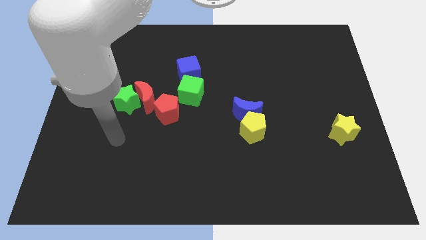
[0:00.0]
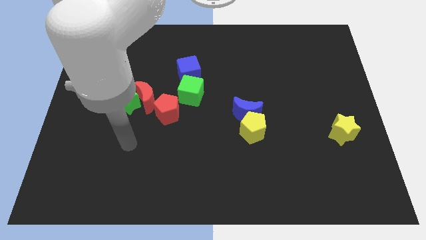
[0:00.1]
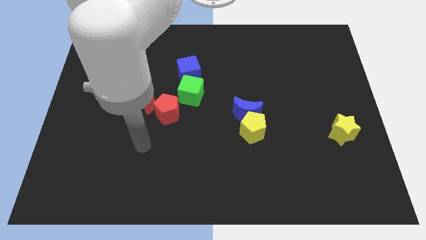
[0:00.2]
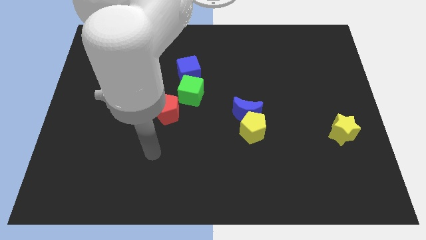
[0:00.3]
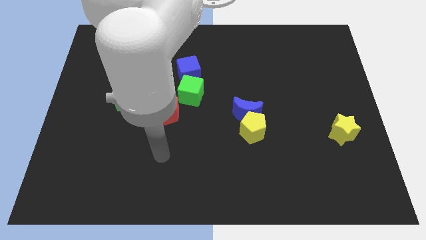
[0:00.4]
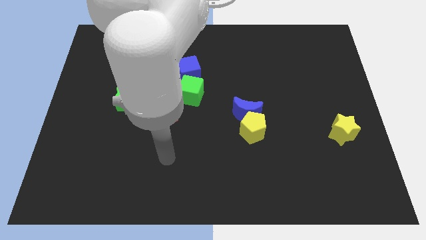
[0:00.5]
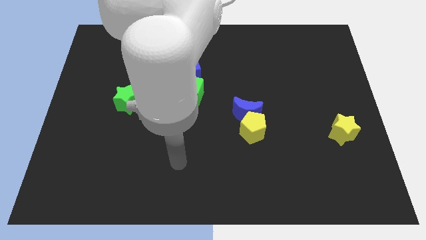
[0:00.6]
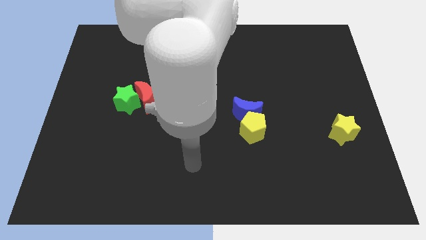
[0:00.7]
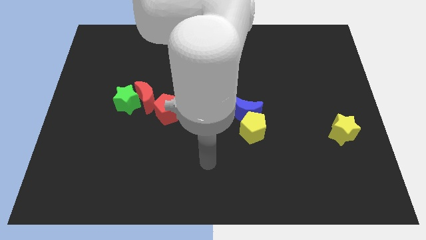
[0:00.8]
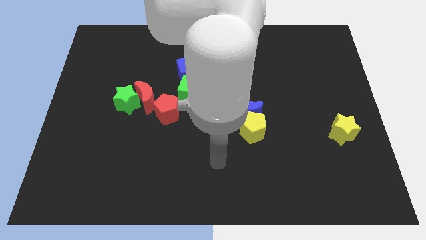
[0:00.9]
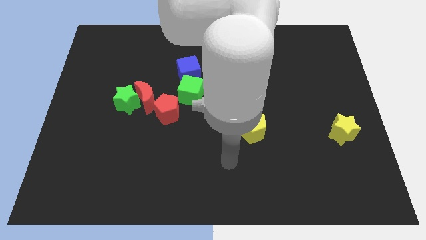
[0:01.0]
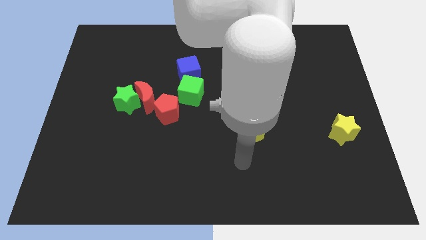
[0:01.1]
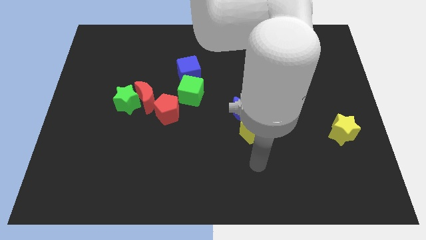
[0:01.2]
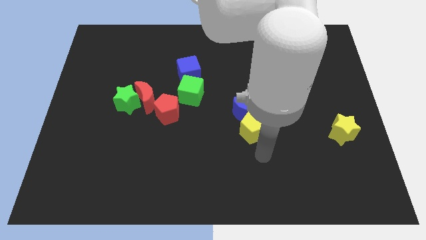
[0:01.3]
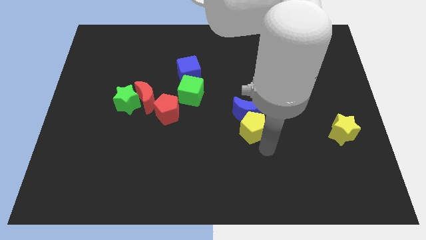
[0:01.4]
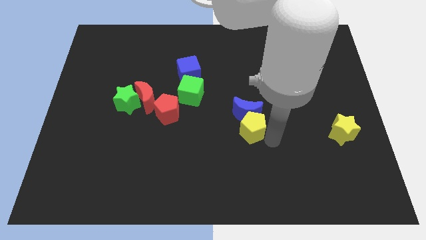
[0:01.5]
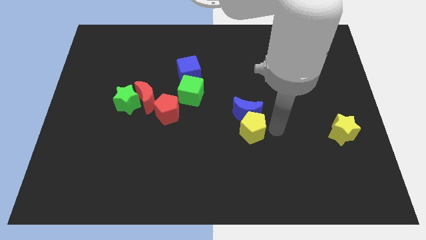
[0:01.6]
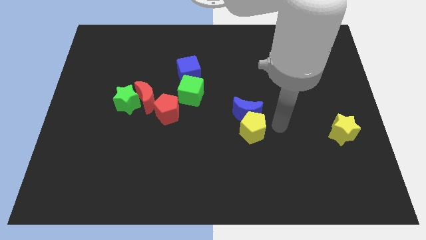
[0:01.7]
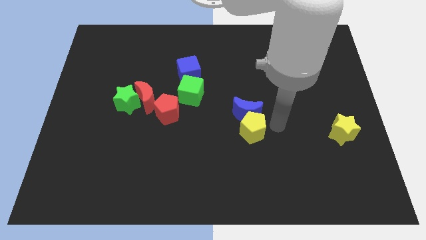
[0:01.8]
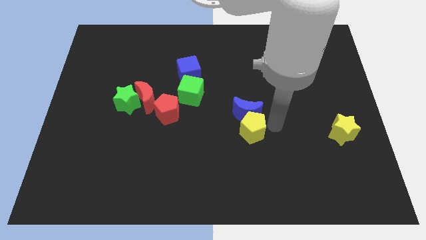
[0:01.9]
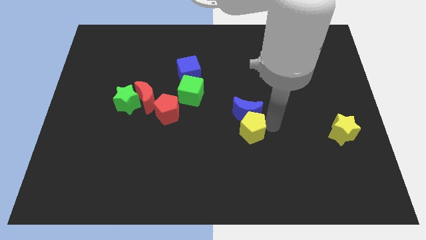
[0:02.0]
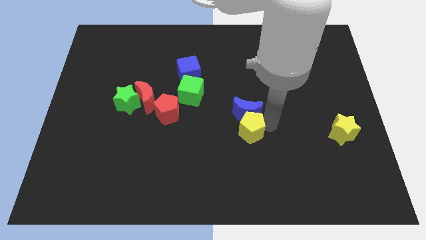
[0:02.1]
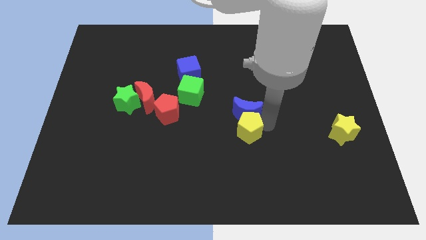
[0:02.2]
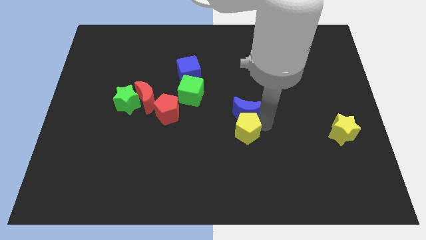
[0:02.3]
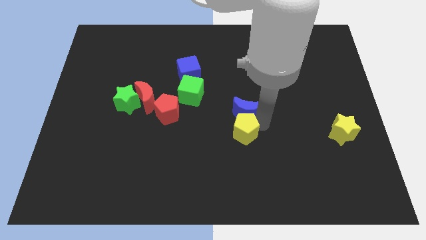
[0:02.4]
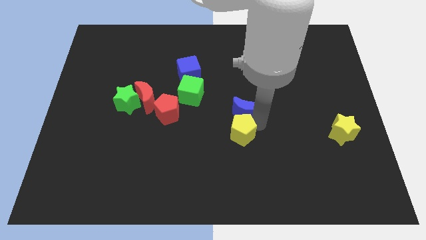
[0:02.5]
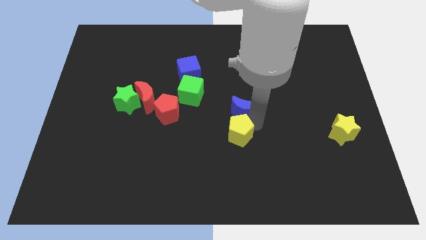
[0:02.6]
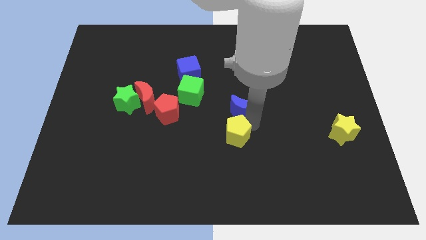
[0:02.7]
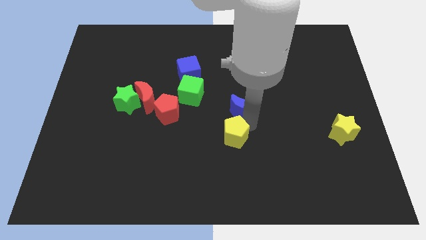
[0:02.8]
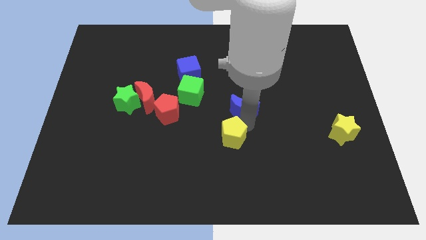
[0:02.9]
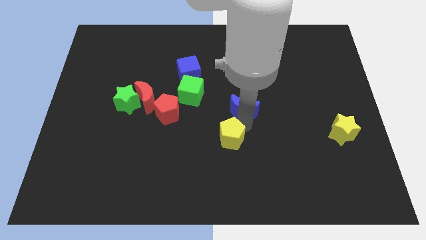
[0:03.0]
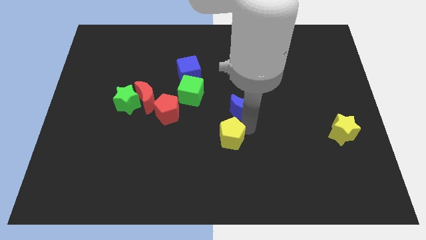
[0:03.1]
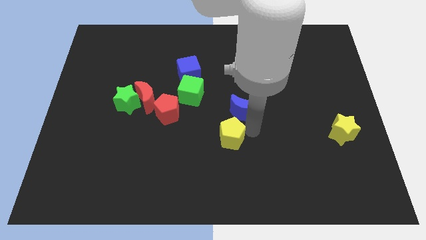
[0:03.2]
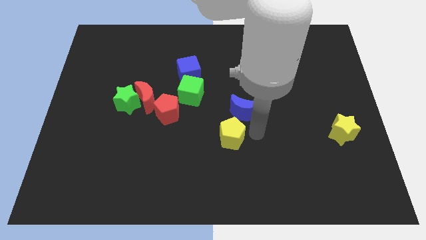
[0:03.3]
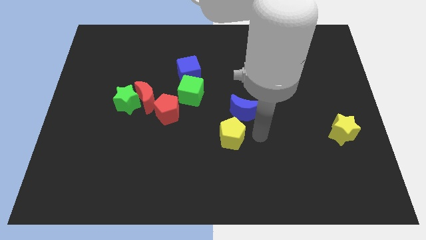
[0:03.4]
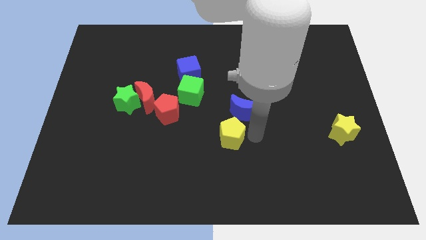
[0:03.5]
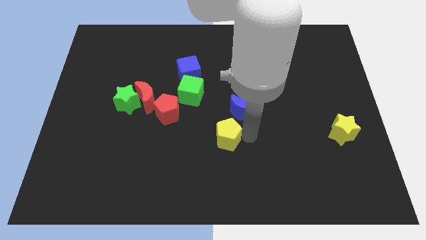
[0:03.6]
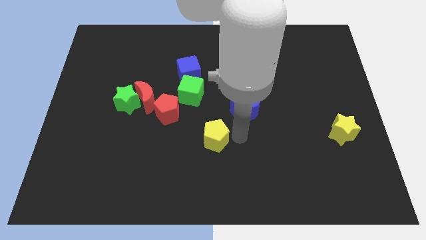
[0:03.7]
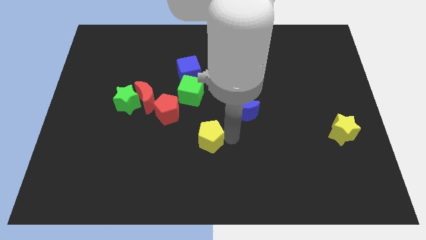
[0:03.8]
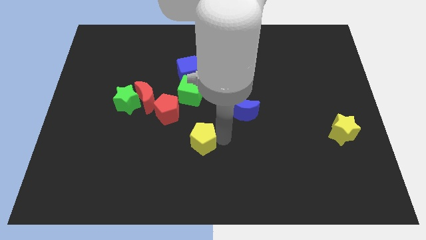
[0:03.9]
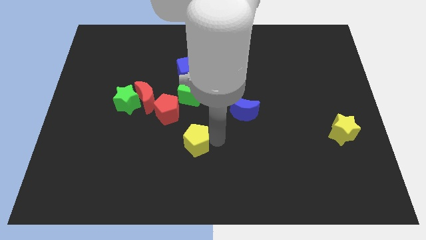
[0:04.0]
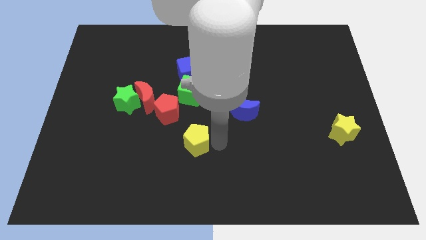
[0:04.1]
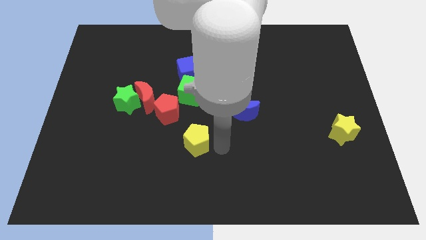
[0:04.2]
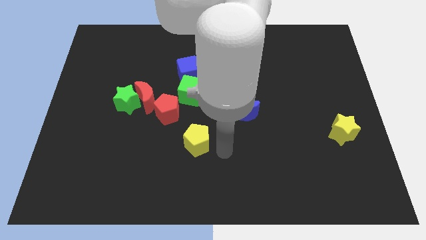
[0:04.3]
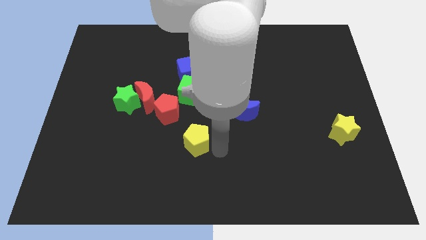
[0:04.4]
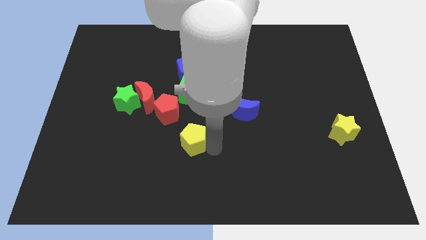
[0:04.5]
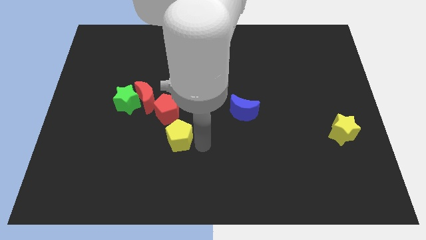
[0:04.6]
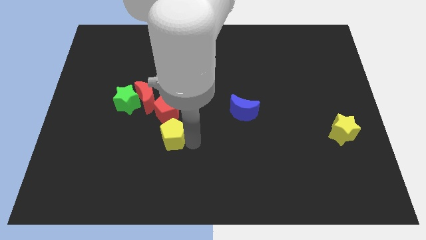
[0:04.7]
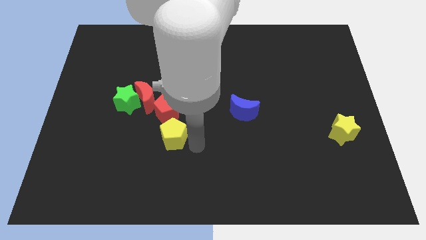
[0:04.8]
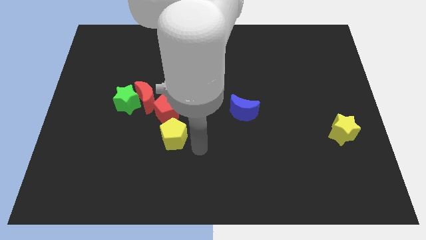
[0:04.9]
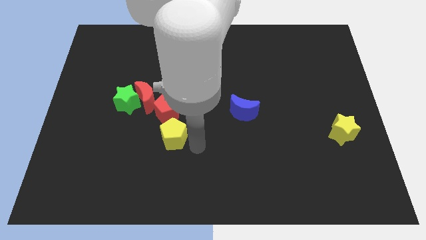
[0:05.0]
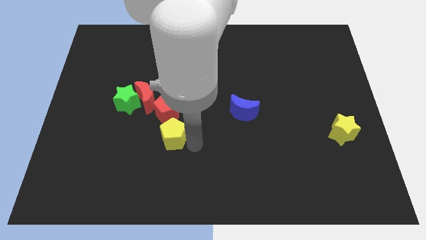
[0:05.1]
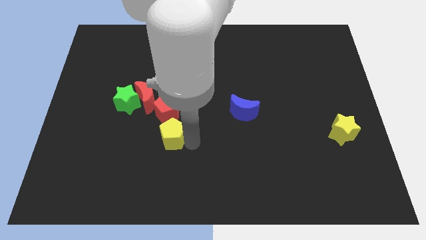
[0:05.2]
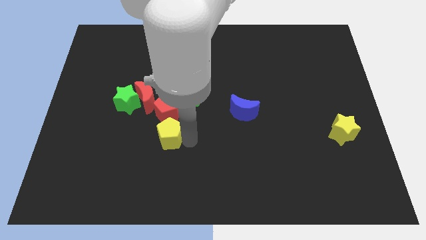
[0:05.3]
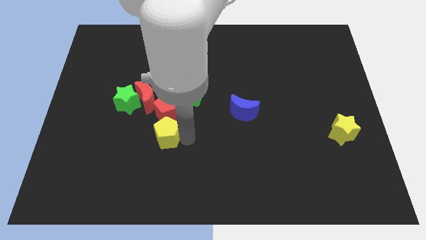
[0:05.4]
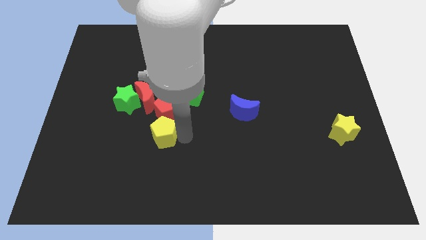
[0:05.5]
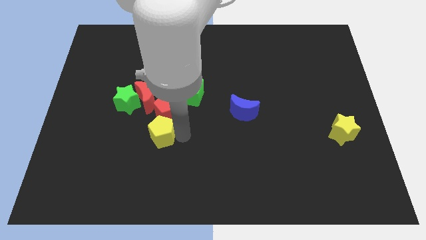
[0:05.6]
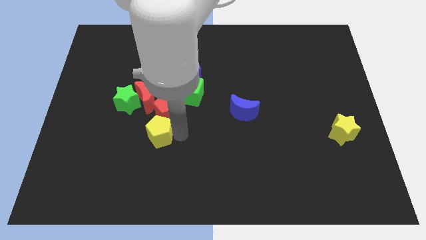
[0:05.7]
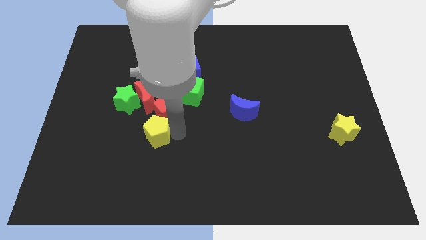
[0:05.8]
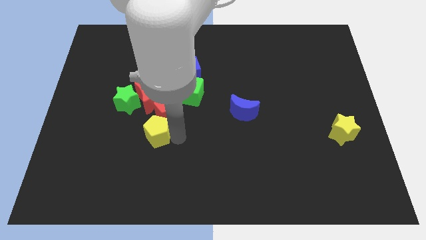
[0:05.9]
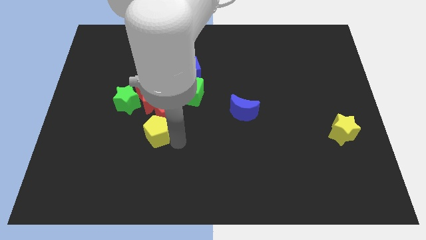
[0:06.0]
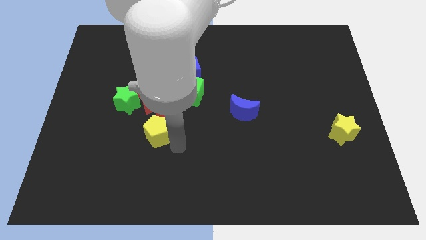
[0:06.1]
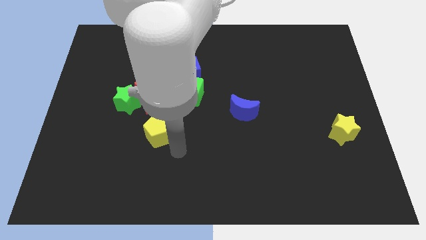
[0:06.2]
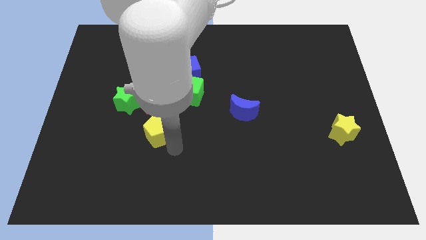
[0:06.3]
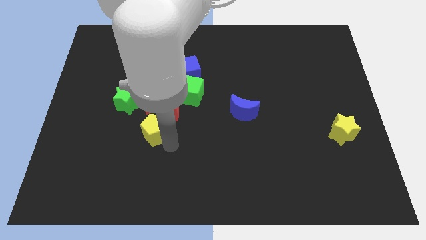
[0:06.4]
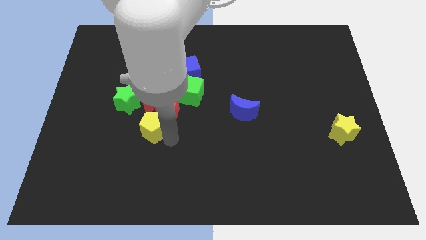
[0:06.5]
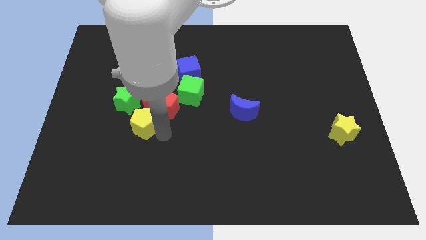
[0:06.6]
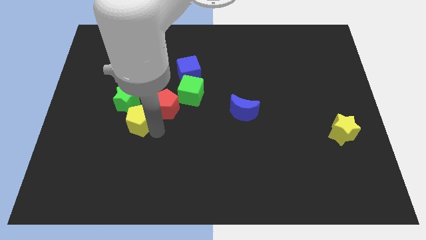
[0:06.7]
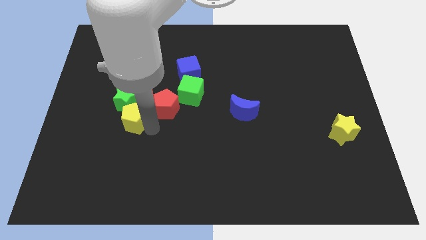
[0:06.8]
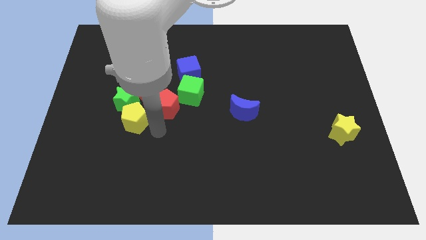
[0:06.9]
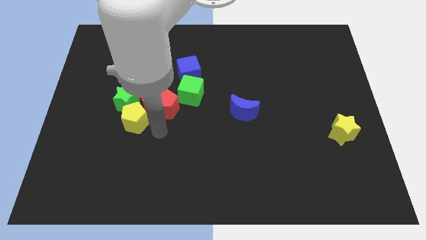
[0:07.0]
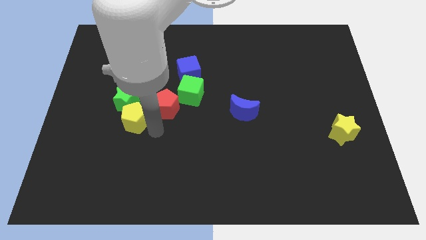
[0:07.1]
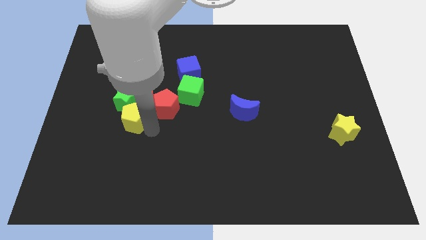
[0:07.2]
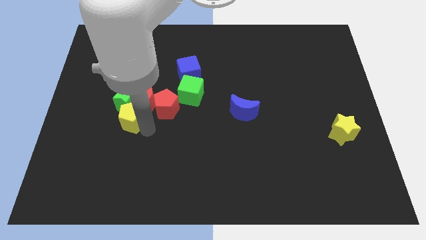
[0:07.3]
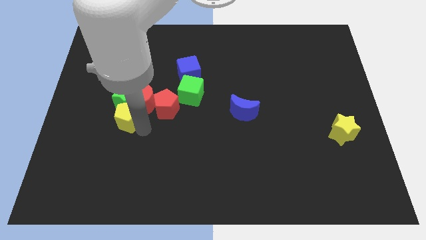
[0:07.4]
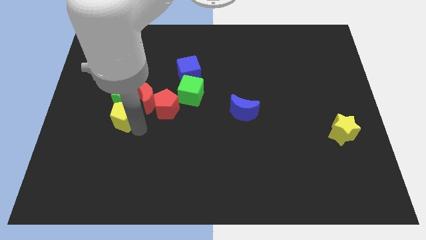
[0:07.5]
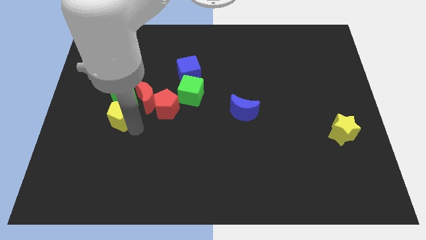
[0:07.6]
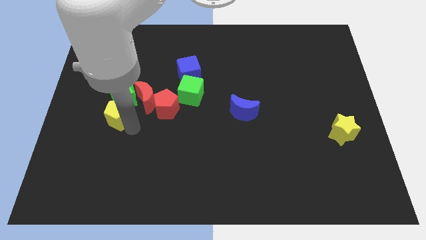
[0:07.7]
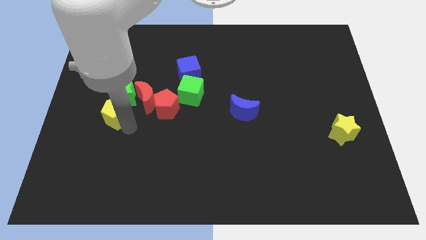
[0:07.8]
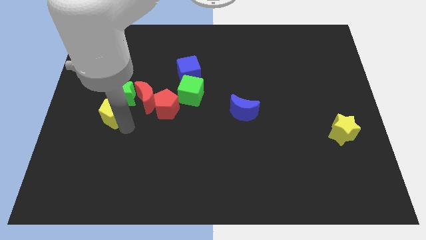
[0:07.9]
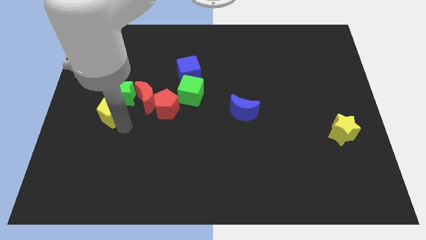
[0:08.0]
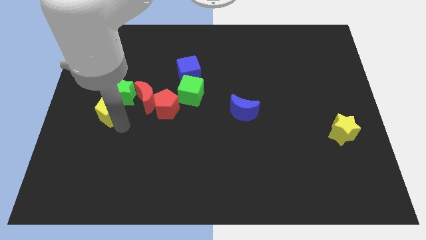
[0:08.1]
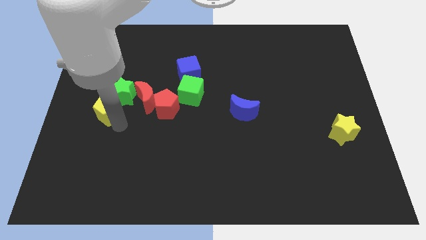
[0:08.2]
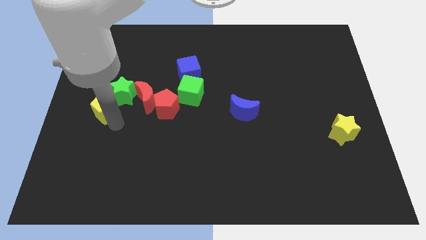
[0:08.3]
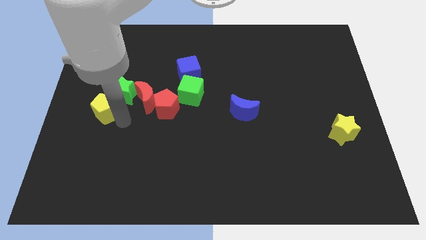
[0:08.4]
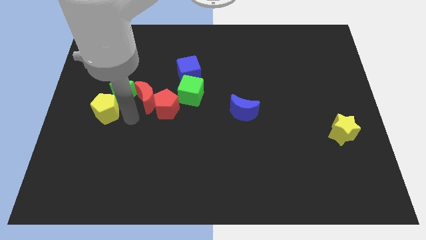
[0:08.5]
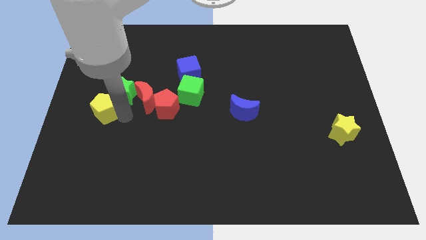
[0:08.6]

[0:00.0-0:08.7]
push the yellow pentagon to the left side
